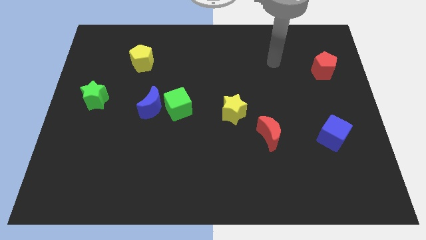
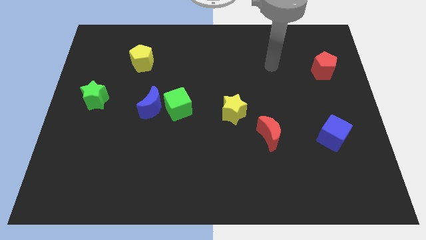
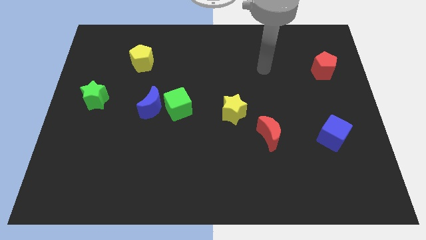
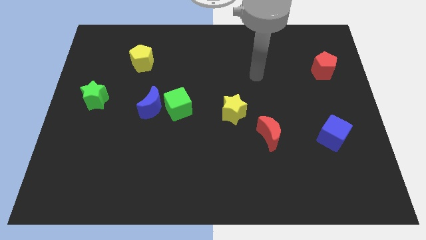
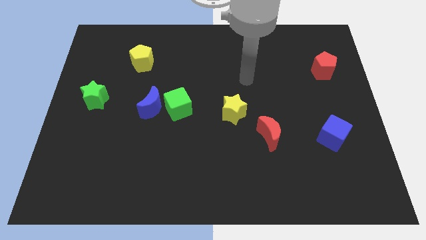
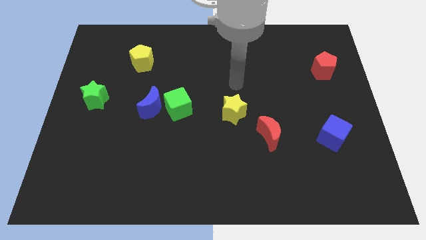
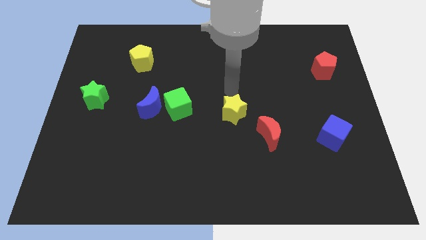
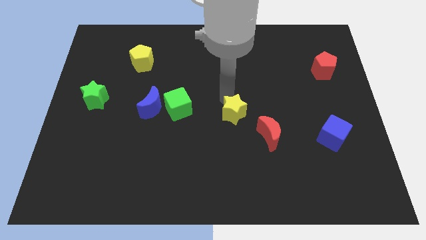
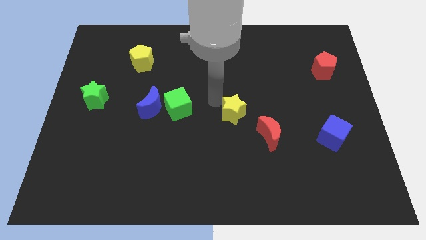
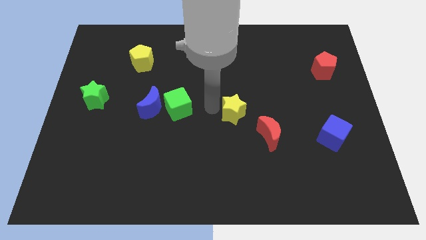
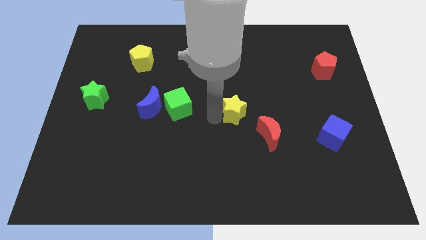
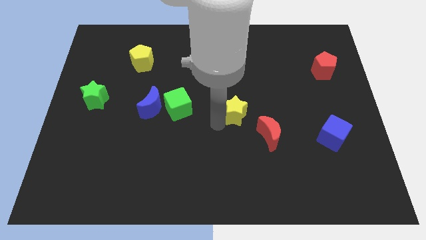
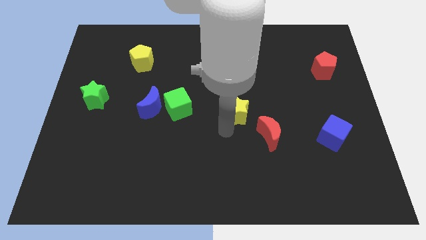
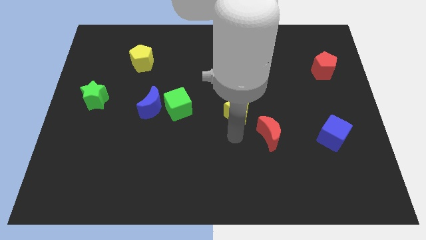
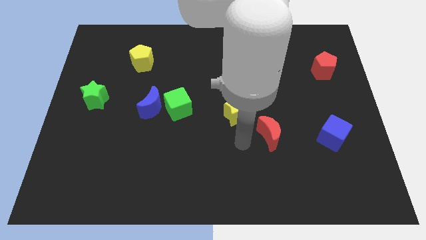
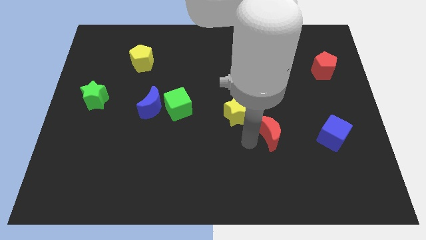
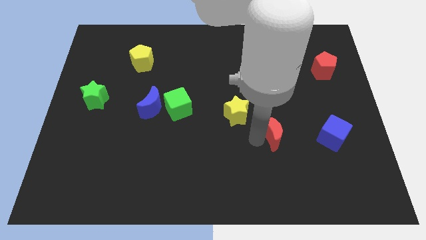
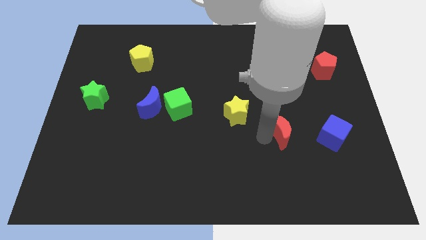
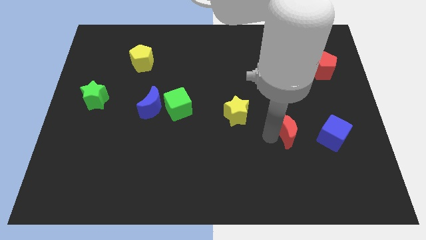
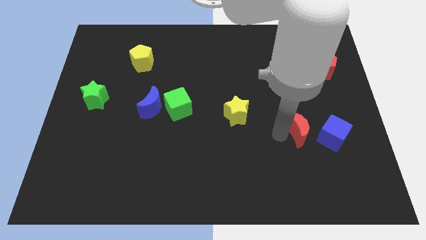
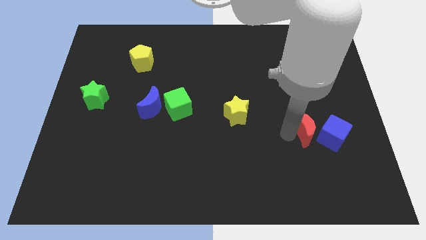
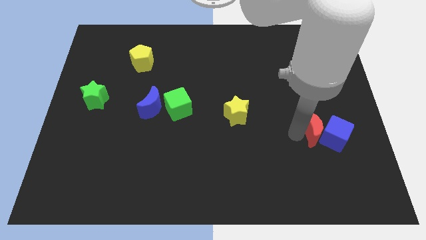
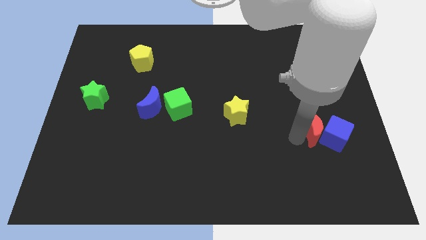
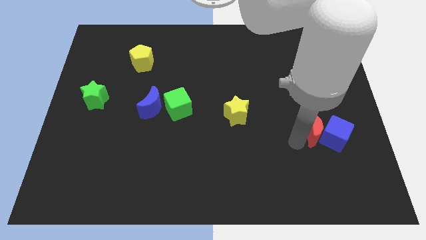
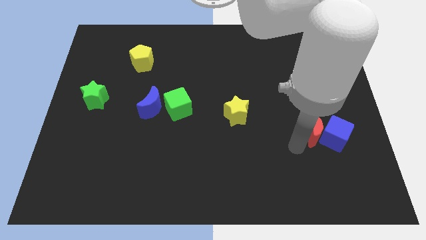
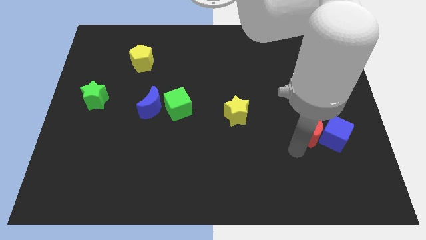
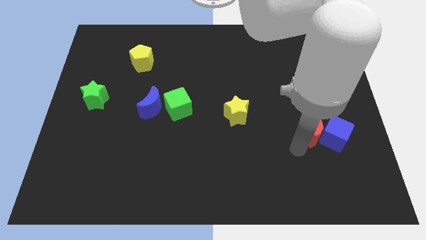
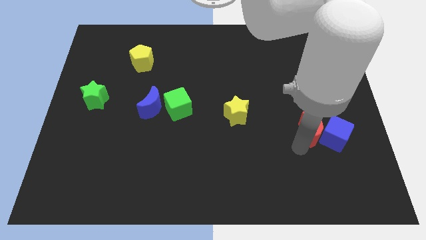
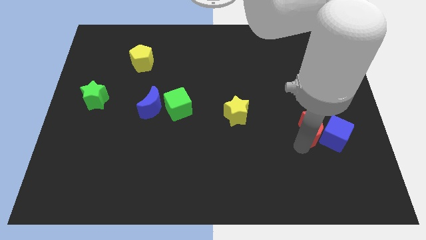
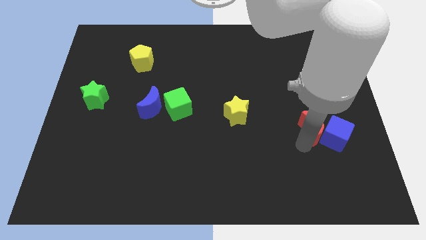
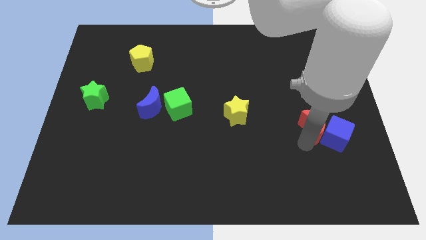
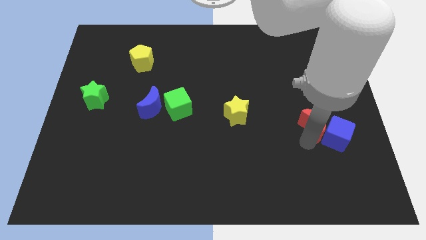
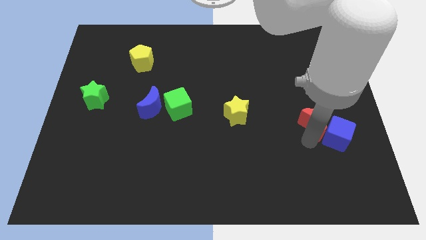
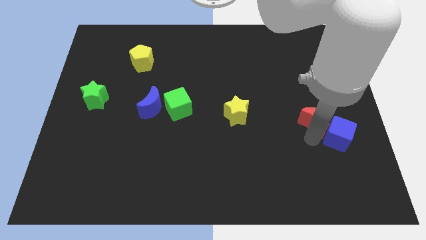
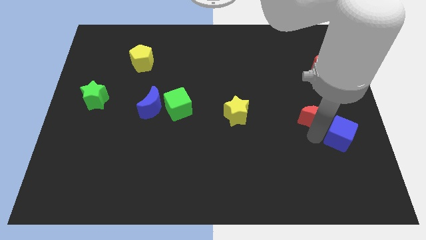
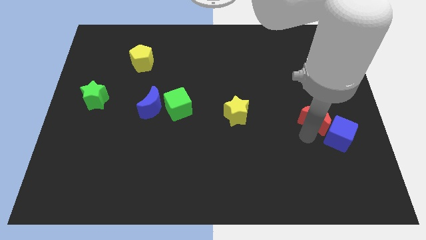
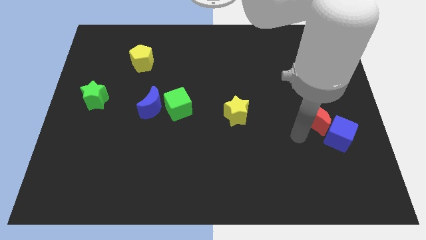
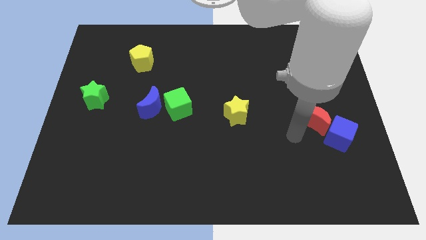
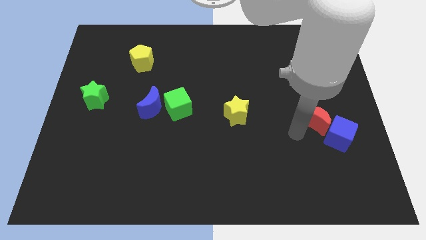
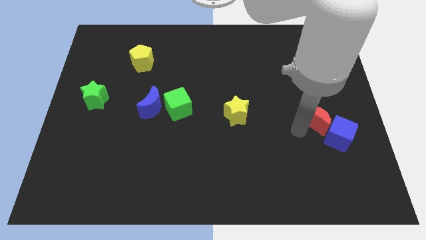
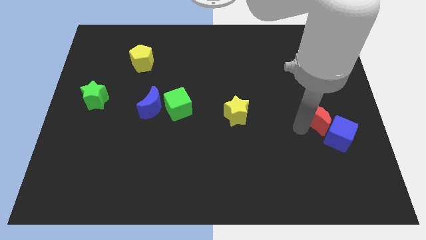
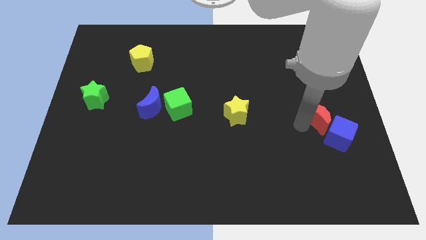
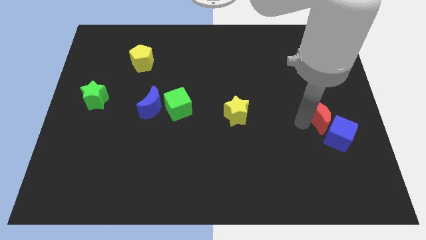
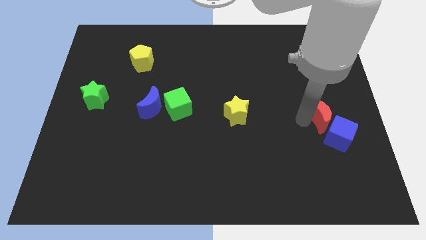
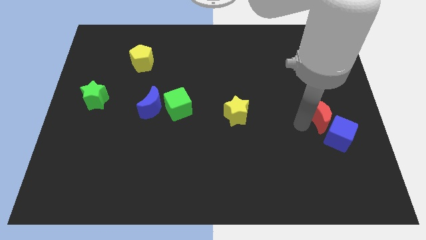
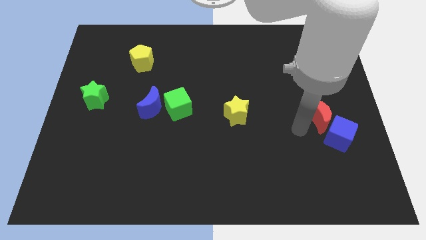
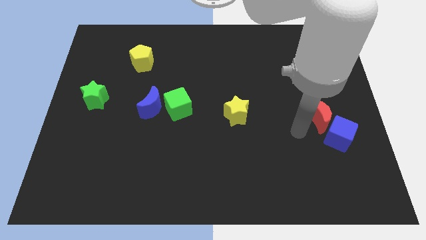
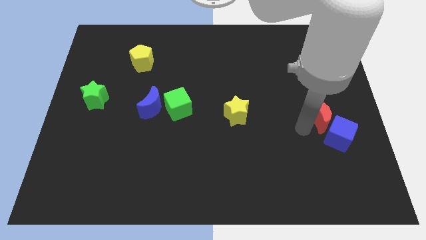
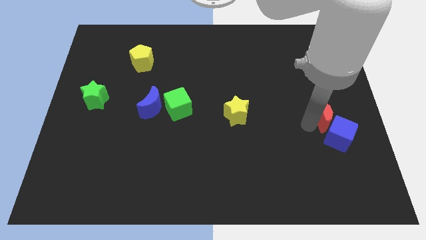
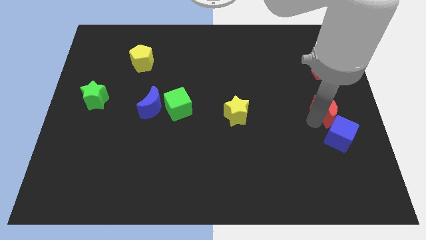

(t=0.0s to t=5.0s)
slide the red moon to the center right

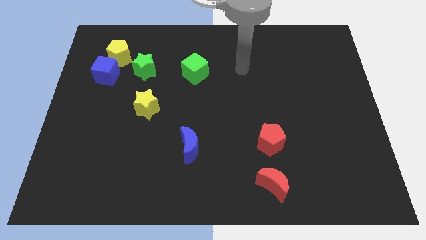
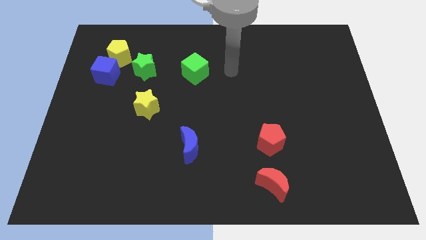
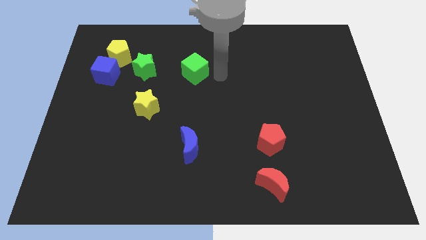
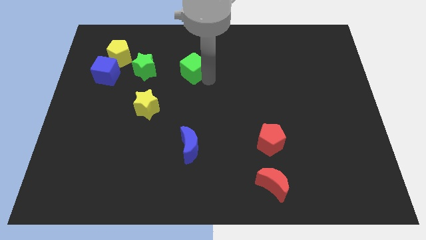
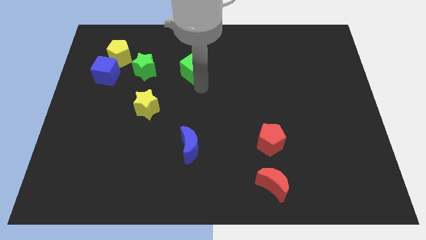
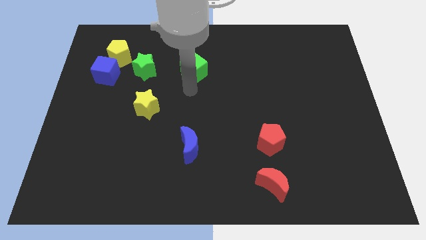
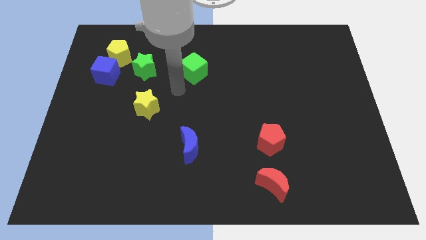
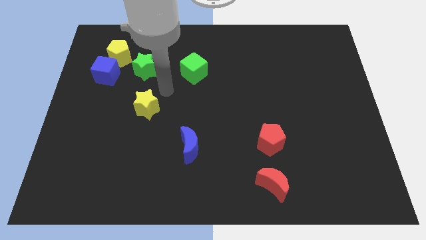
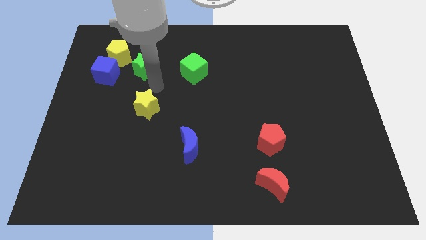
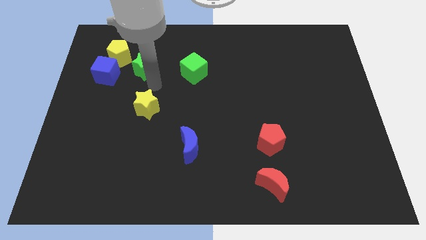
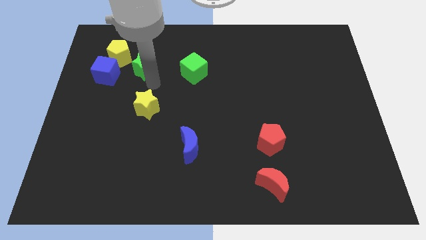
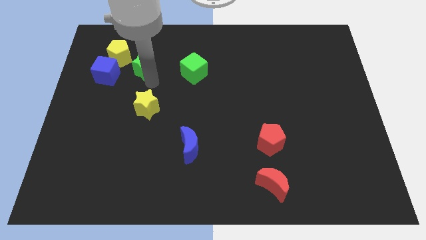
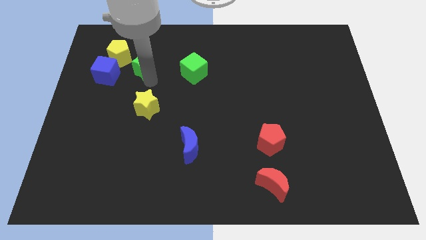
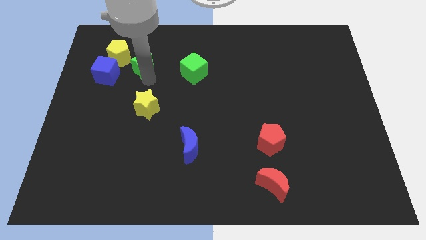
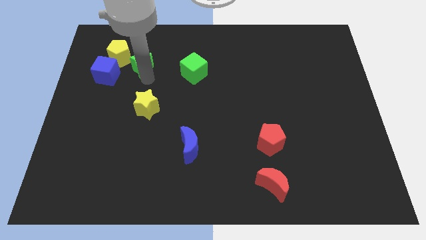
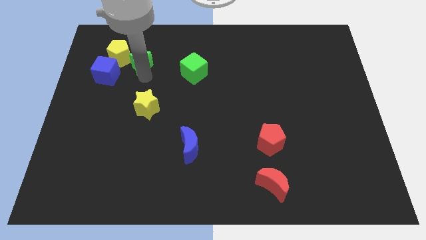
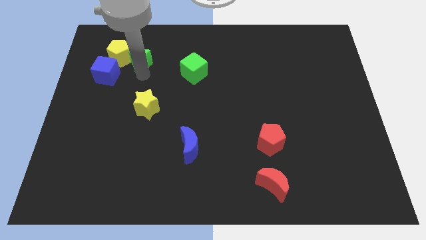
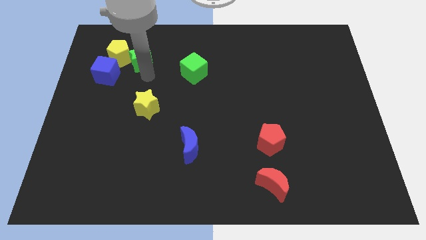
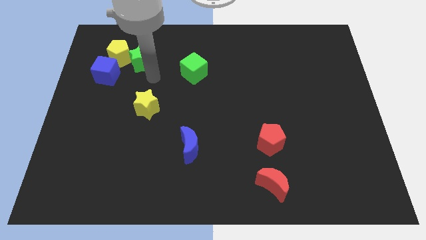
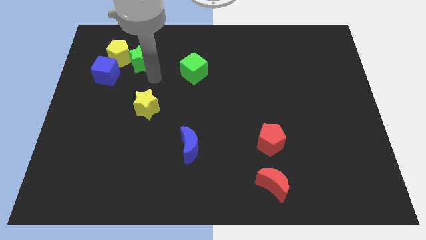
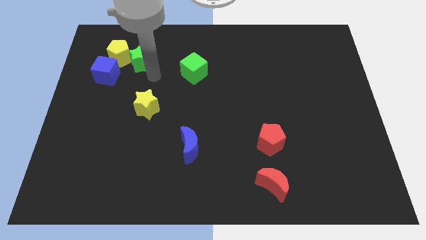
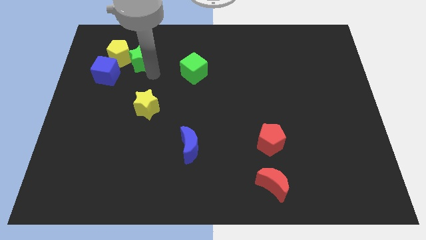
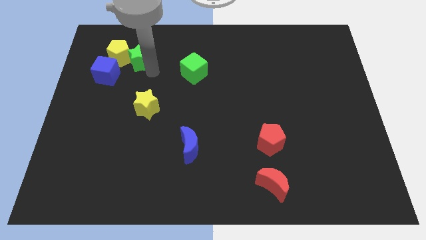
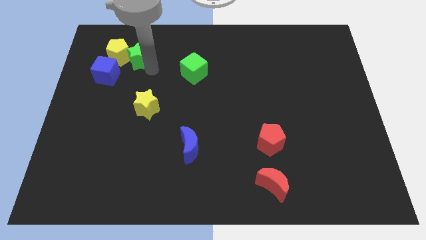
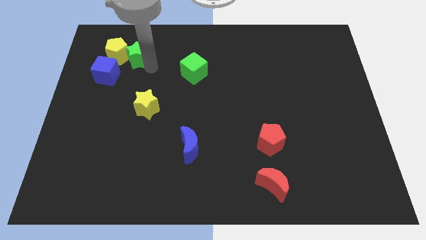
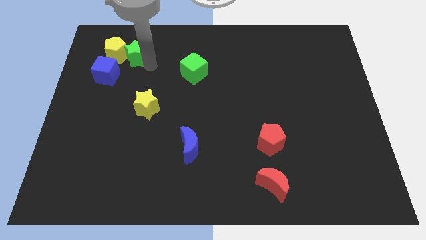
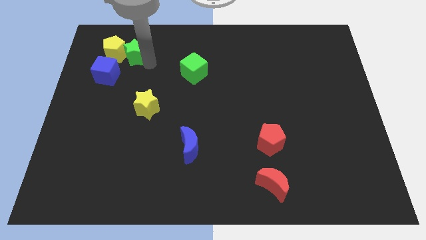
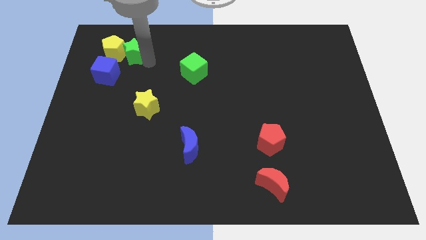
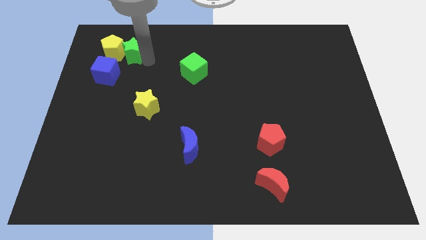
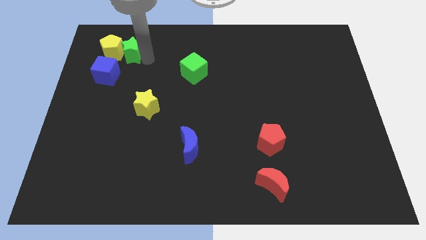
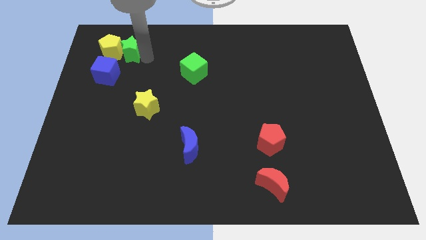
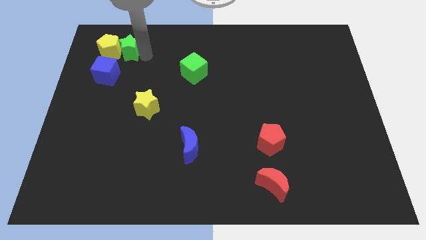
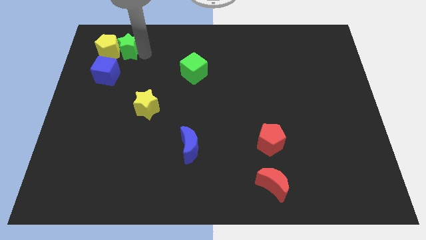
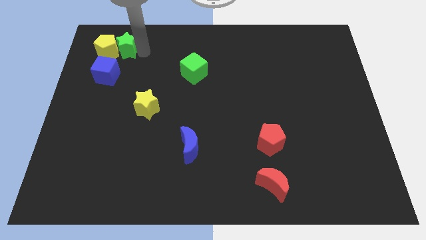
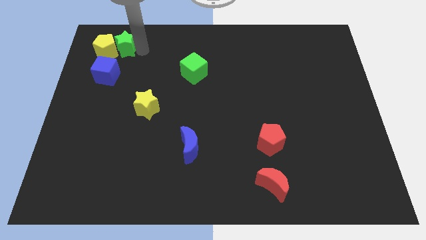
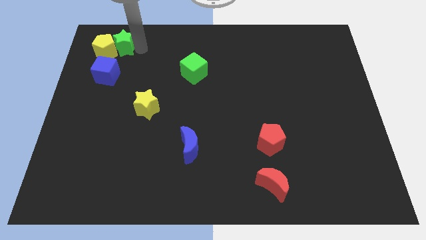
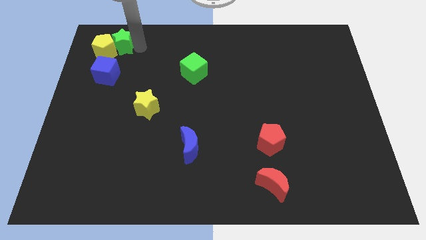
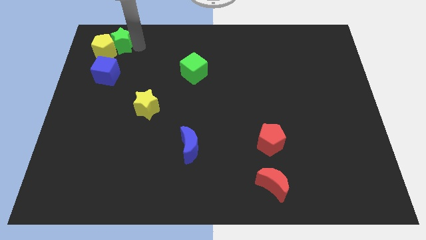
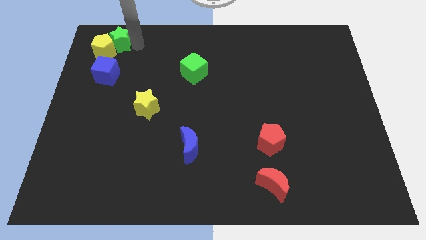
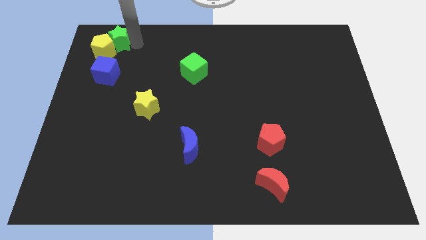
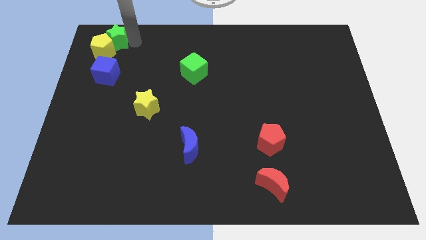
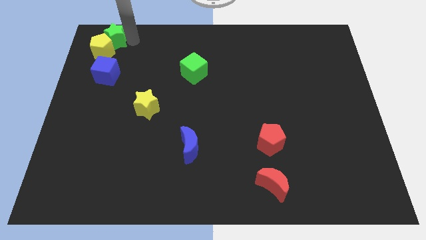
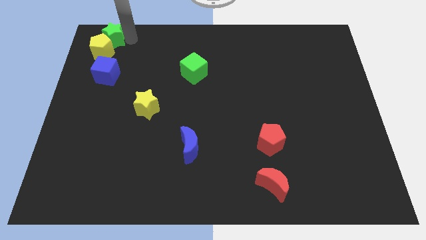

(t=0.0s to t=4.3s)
put the green star to the top left
